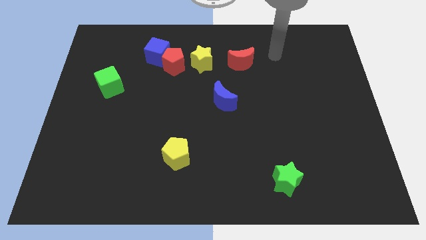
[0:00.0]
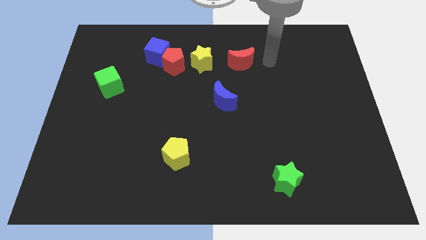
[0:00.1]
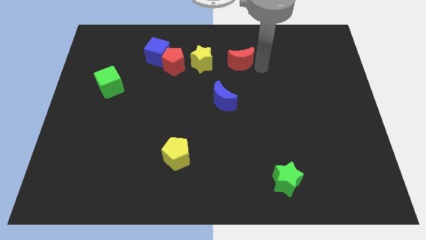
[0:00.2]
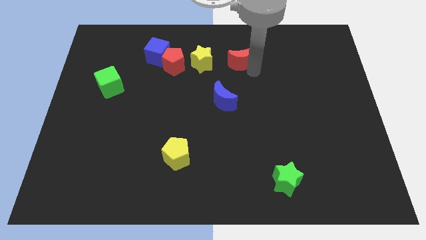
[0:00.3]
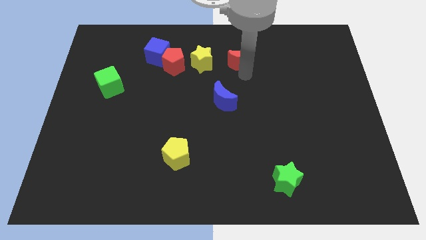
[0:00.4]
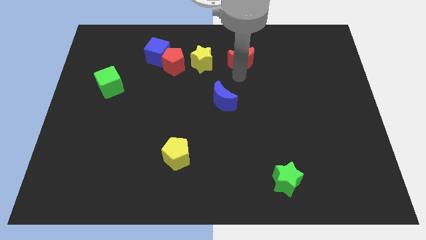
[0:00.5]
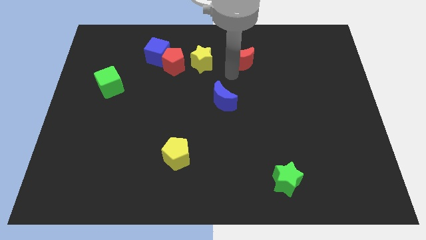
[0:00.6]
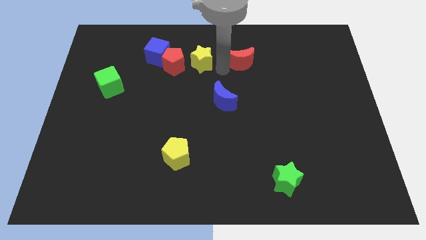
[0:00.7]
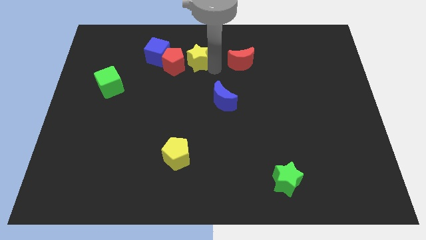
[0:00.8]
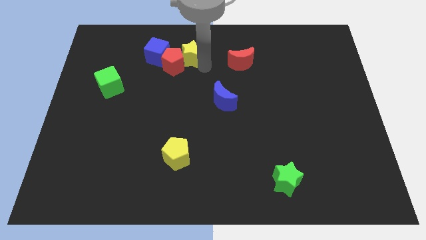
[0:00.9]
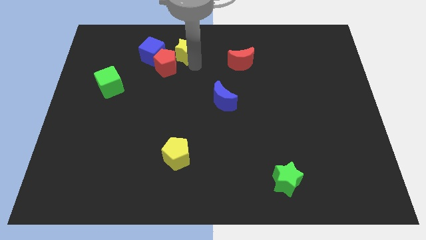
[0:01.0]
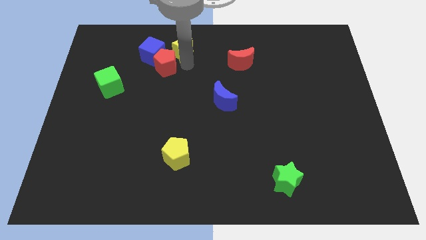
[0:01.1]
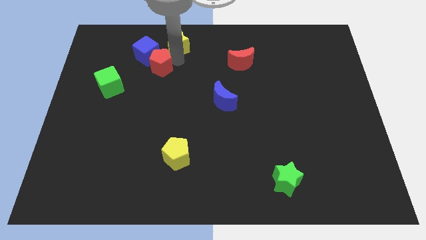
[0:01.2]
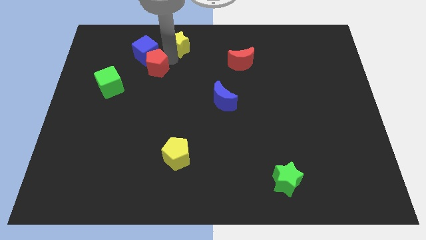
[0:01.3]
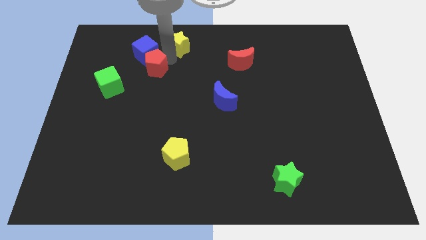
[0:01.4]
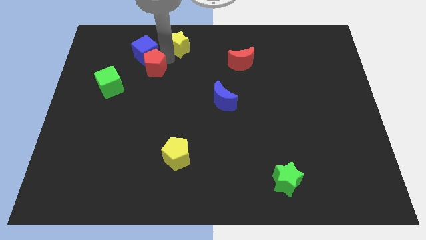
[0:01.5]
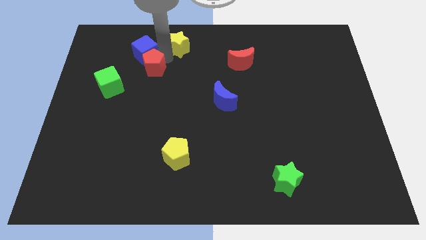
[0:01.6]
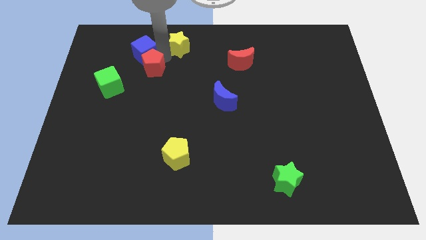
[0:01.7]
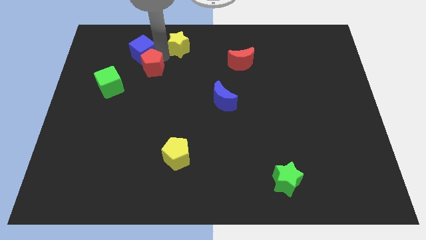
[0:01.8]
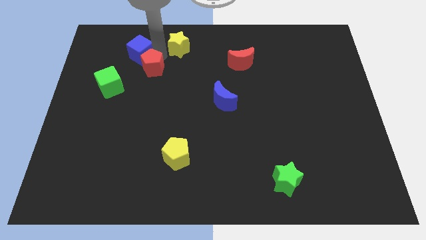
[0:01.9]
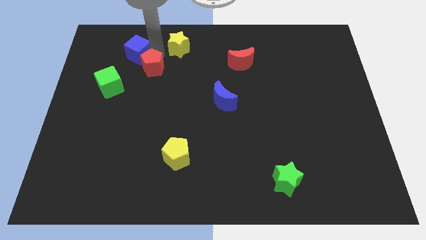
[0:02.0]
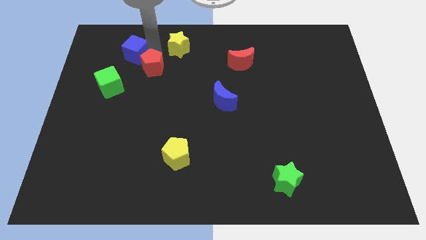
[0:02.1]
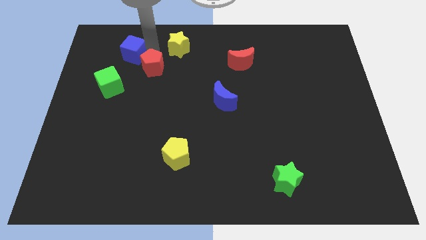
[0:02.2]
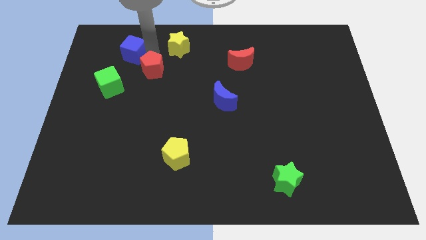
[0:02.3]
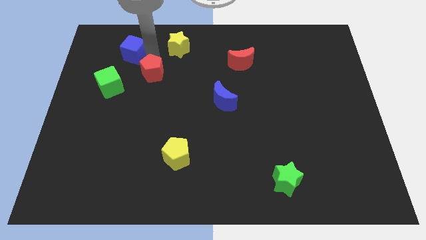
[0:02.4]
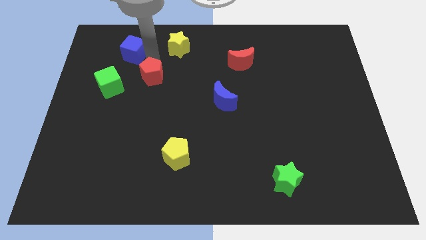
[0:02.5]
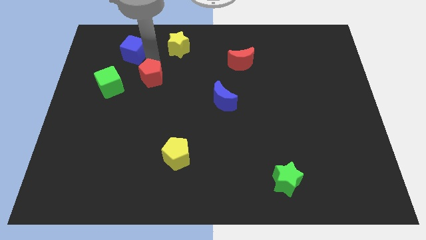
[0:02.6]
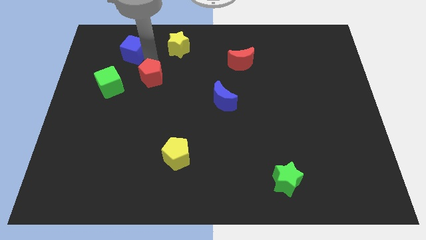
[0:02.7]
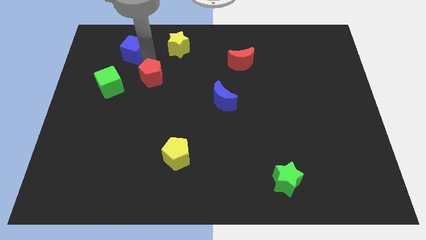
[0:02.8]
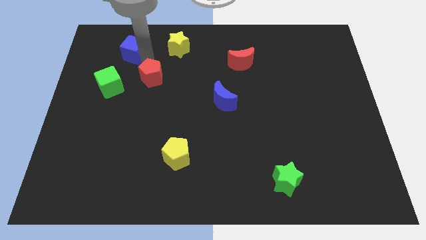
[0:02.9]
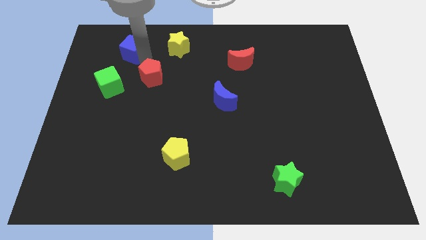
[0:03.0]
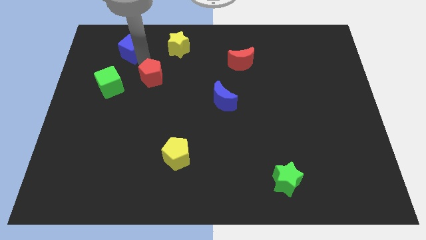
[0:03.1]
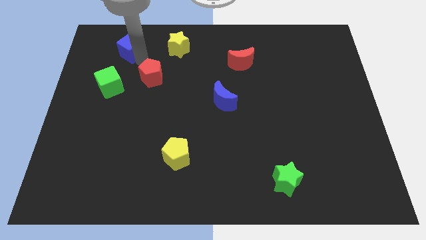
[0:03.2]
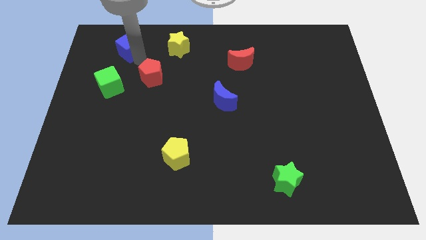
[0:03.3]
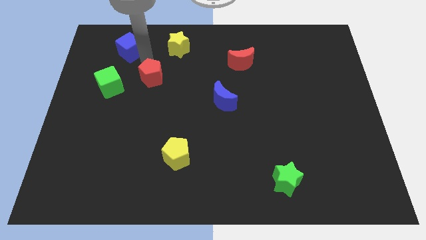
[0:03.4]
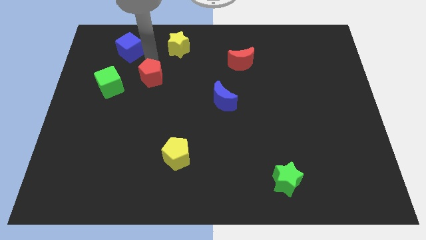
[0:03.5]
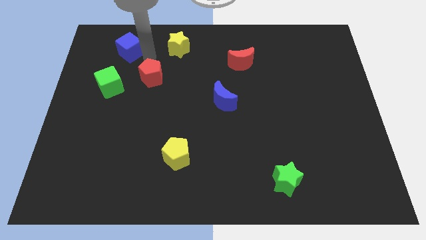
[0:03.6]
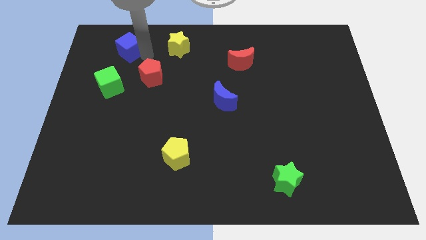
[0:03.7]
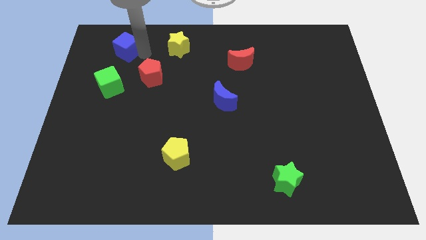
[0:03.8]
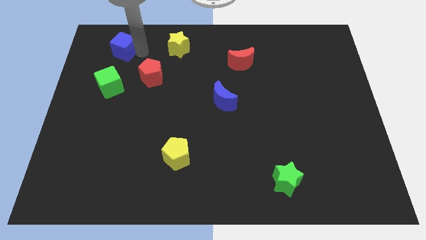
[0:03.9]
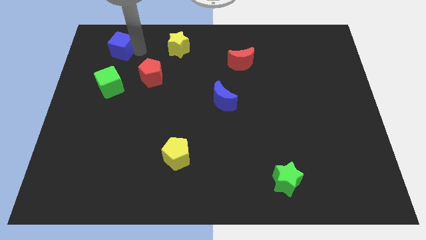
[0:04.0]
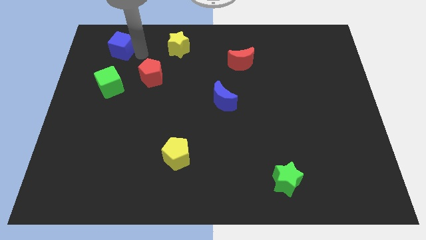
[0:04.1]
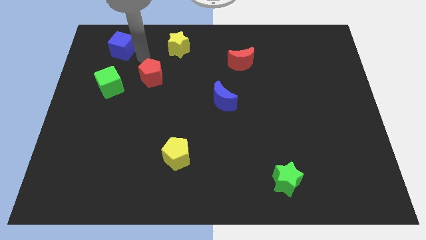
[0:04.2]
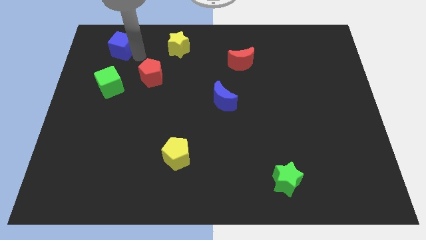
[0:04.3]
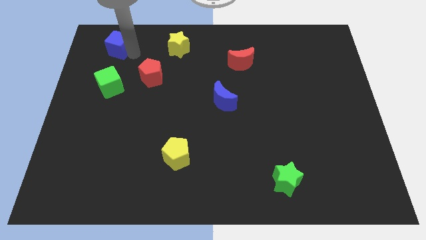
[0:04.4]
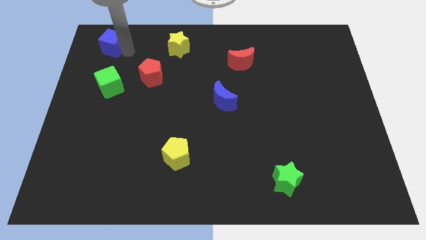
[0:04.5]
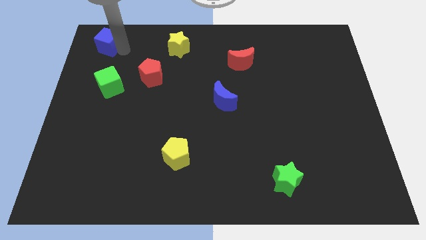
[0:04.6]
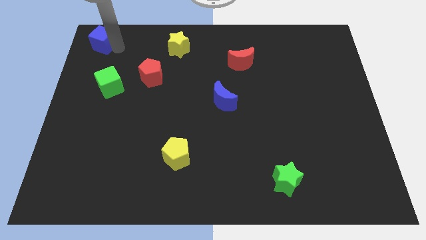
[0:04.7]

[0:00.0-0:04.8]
move the blue cube to the upper left corner

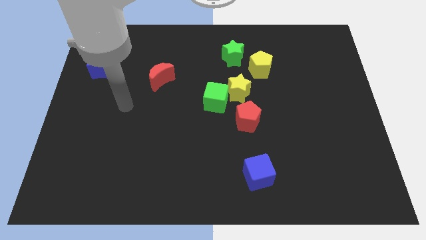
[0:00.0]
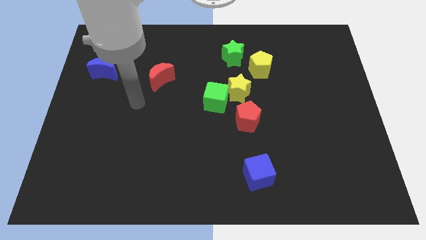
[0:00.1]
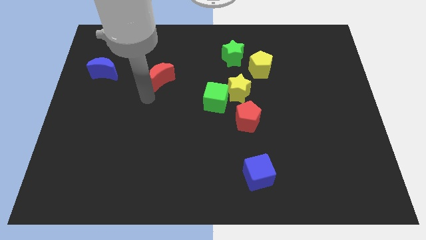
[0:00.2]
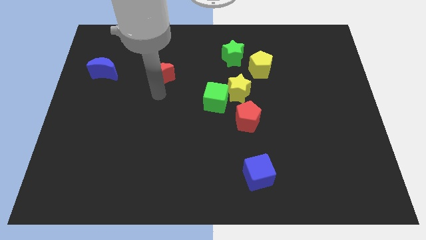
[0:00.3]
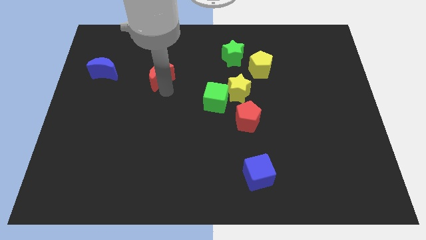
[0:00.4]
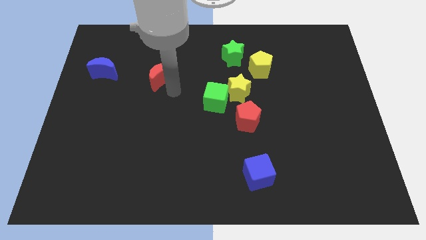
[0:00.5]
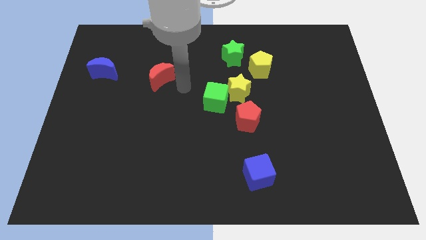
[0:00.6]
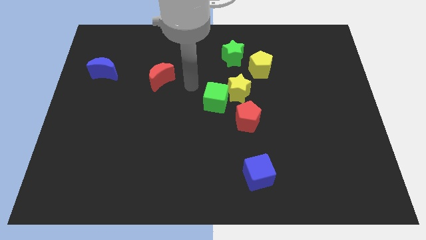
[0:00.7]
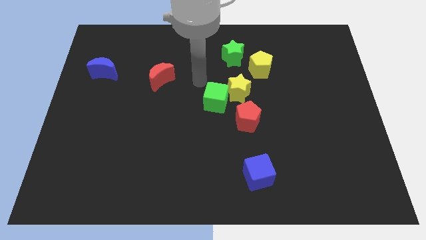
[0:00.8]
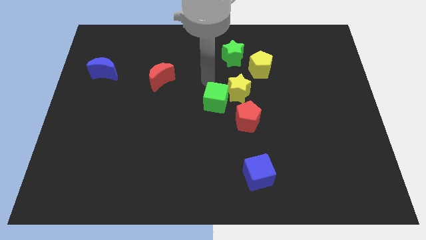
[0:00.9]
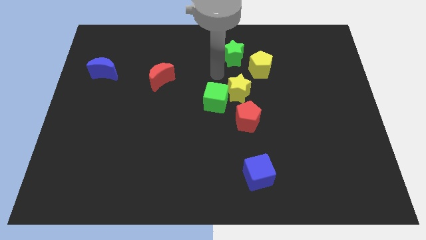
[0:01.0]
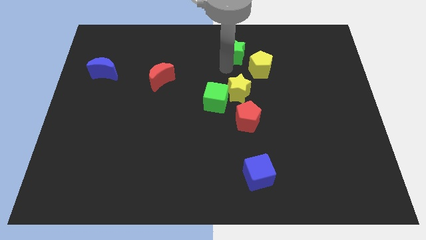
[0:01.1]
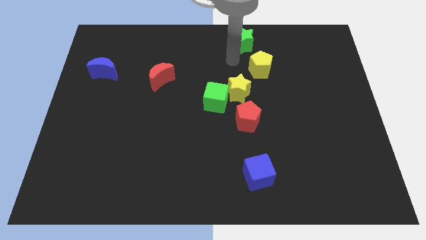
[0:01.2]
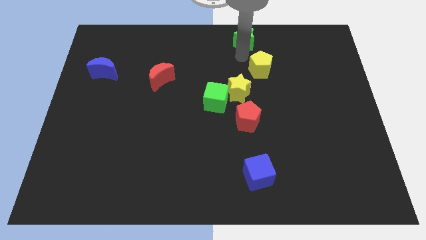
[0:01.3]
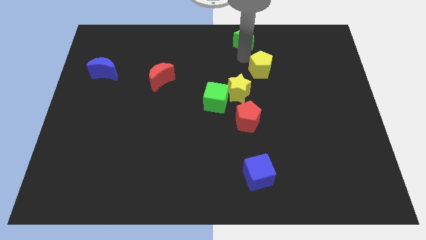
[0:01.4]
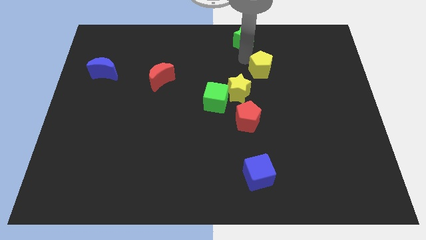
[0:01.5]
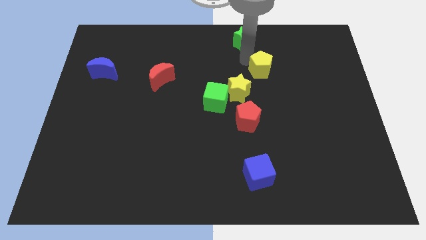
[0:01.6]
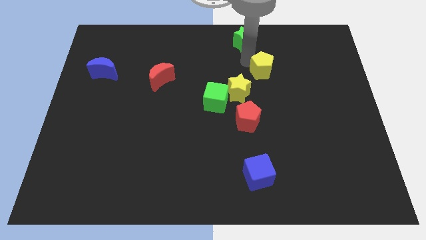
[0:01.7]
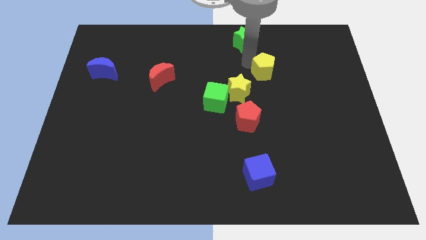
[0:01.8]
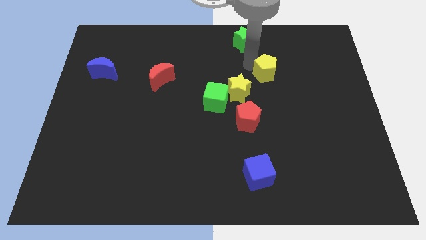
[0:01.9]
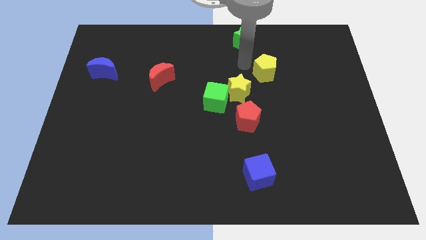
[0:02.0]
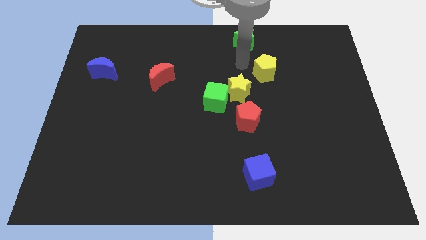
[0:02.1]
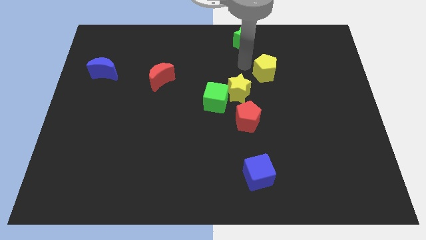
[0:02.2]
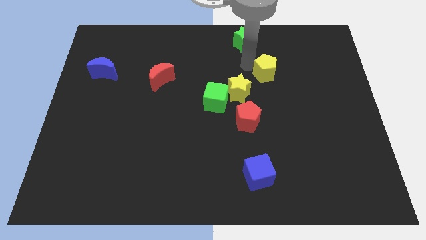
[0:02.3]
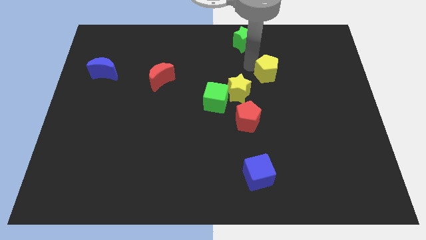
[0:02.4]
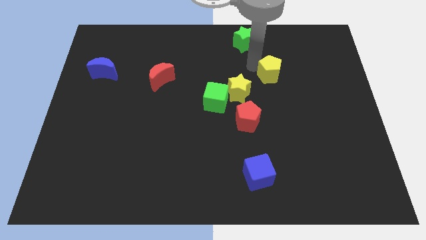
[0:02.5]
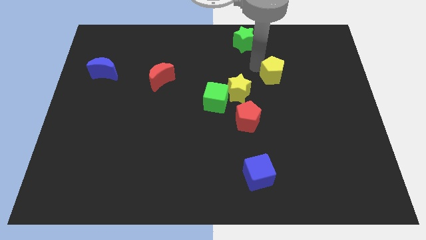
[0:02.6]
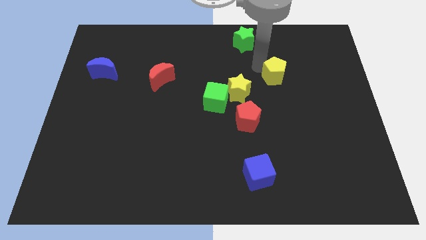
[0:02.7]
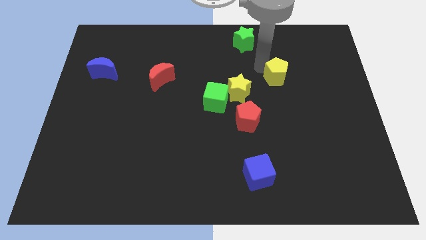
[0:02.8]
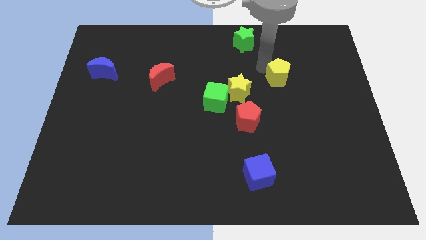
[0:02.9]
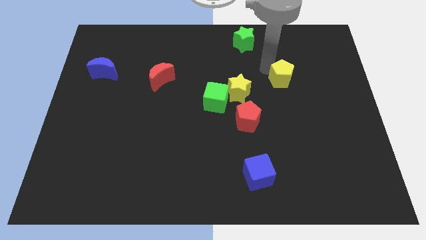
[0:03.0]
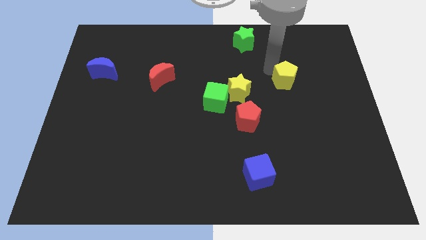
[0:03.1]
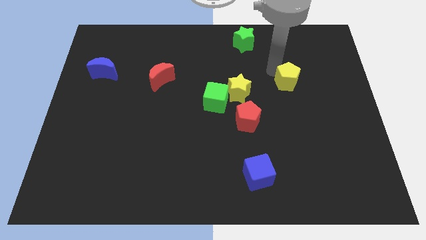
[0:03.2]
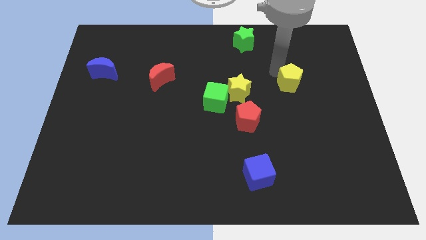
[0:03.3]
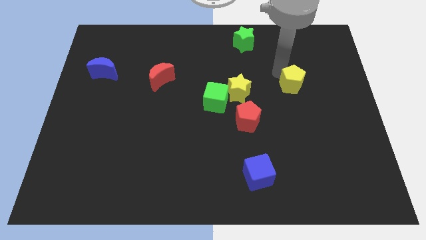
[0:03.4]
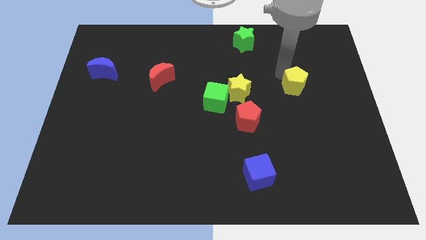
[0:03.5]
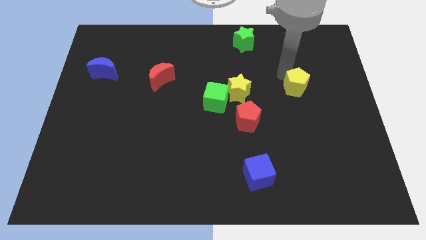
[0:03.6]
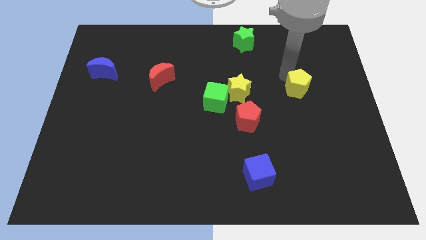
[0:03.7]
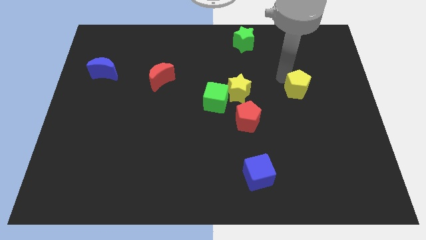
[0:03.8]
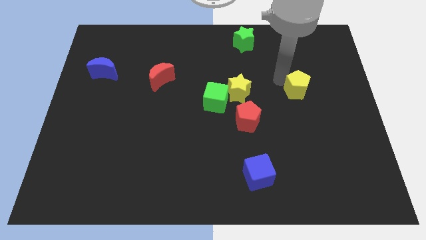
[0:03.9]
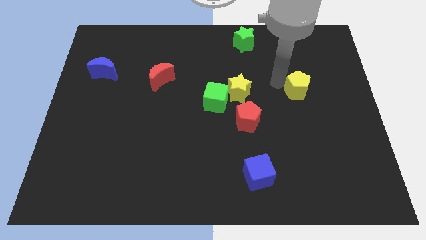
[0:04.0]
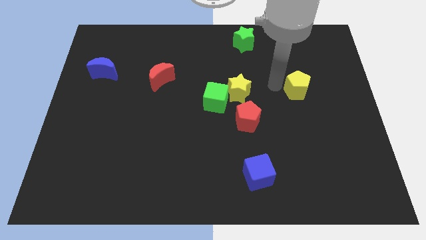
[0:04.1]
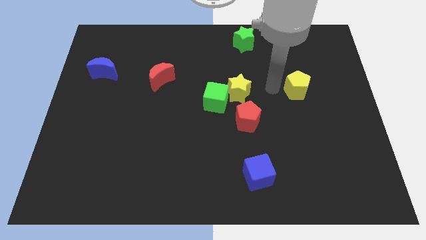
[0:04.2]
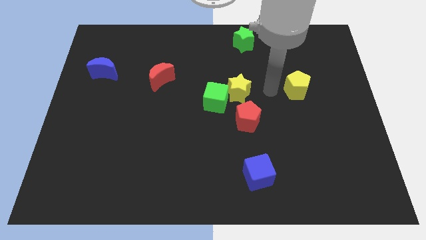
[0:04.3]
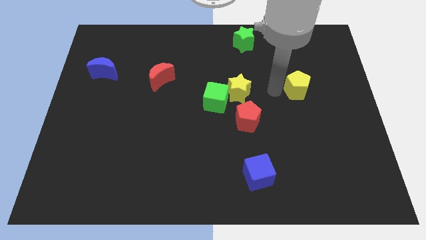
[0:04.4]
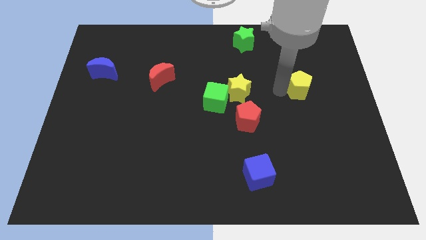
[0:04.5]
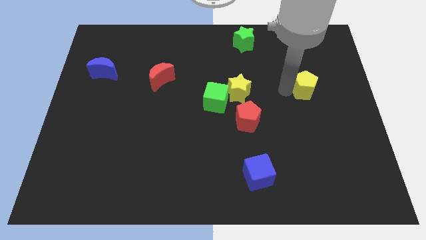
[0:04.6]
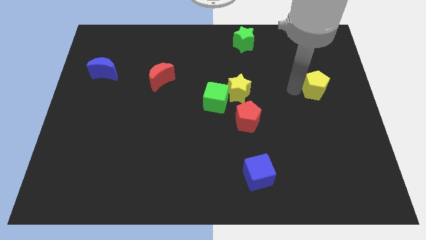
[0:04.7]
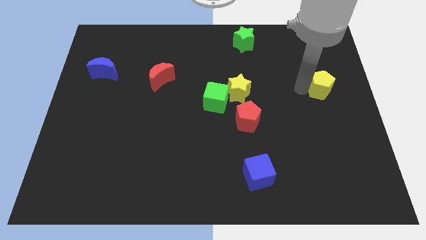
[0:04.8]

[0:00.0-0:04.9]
slide the yellow pentagon to the right side
